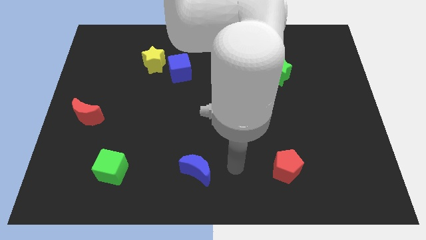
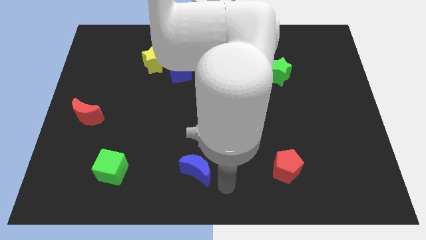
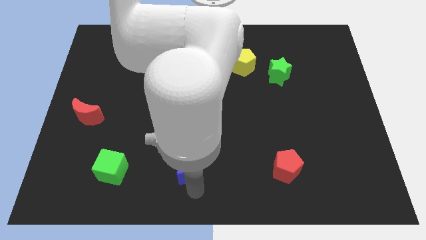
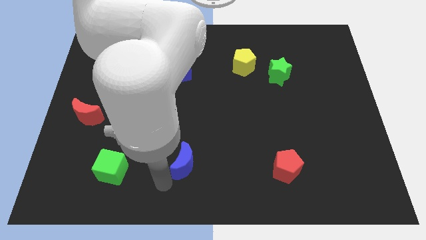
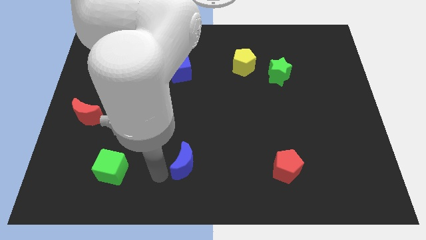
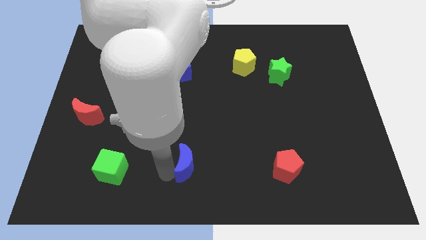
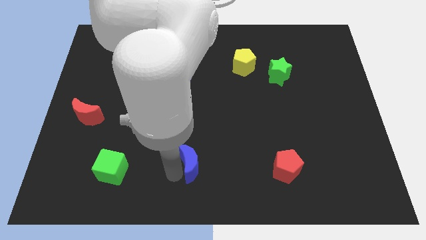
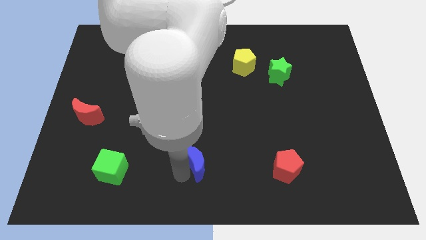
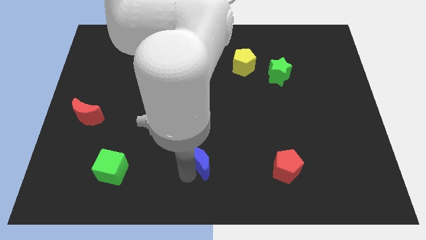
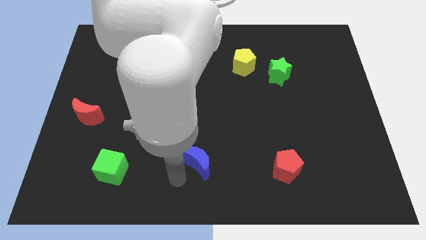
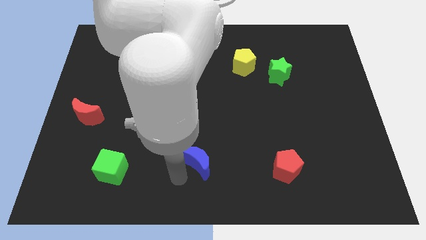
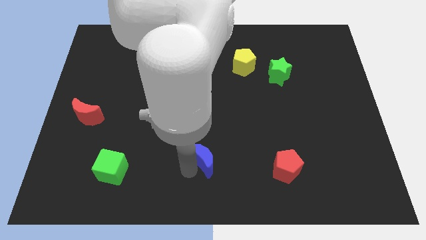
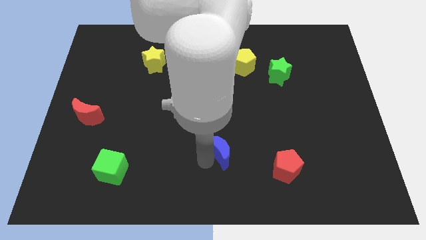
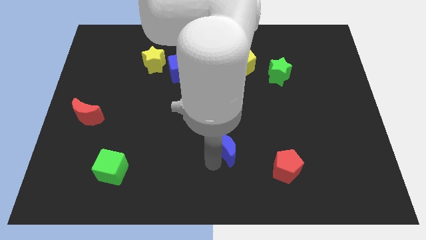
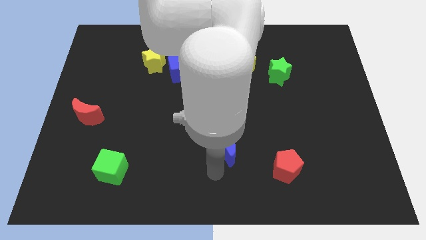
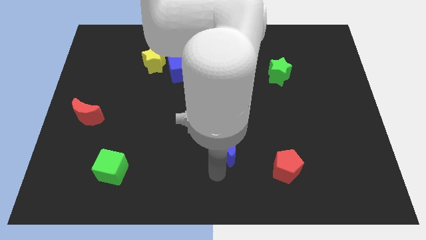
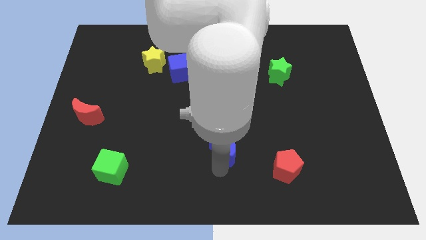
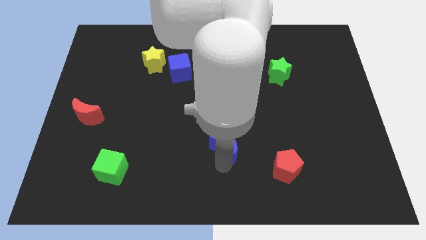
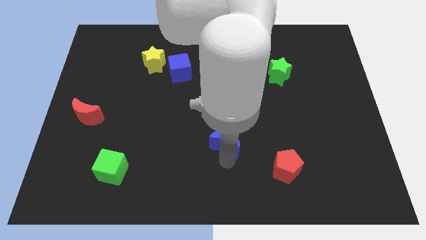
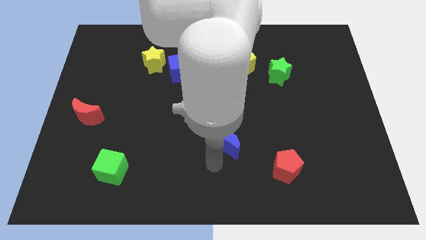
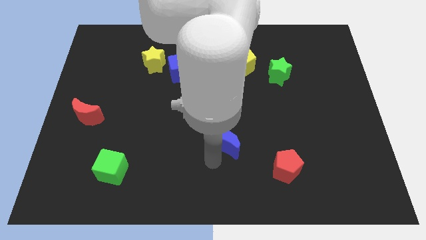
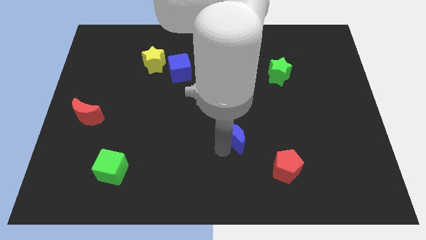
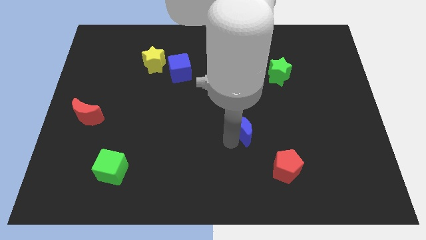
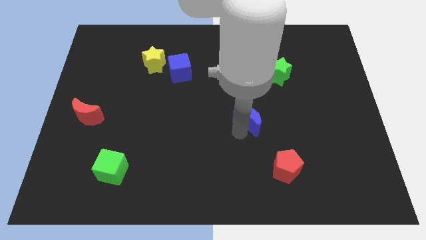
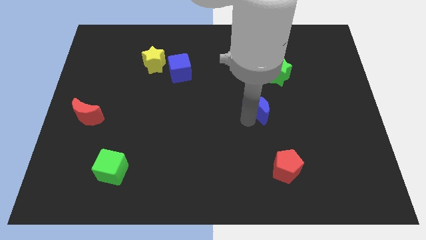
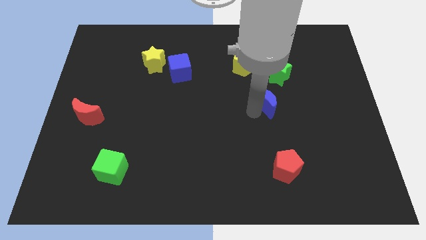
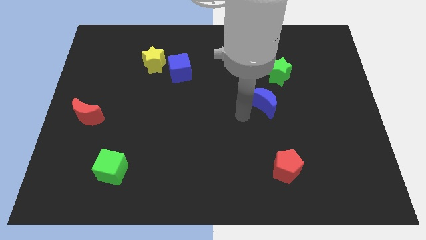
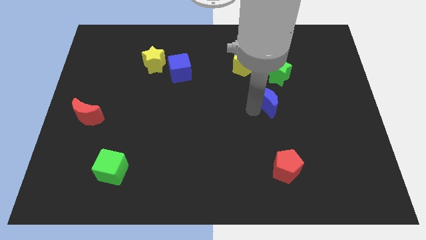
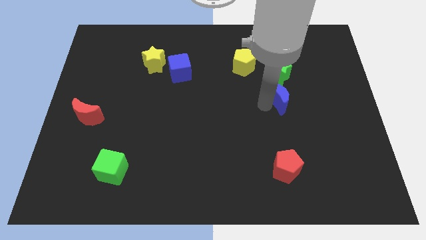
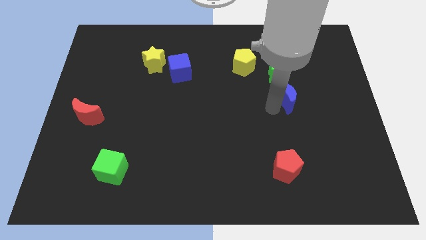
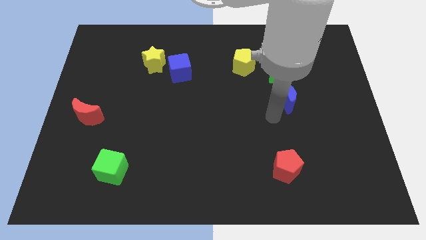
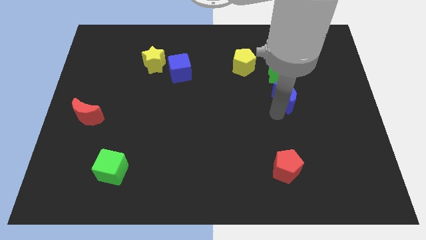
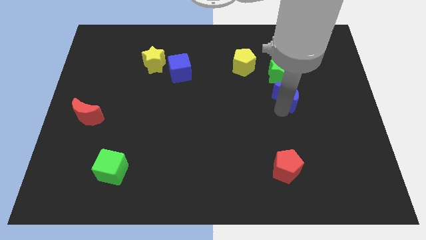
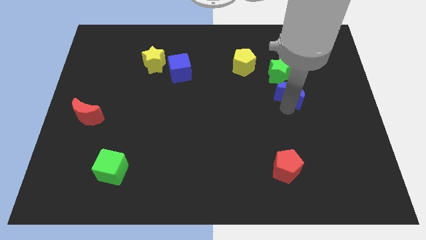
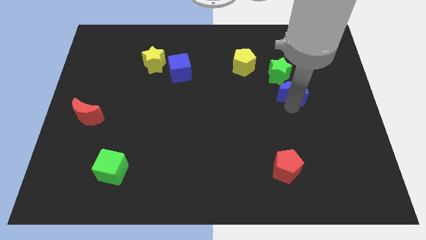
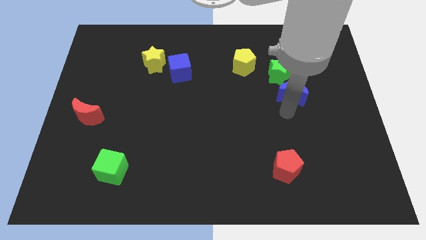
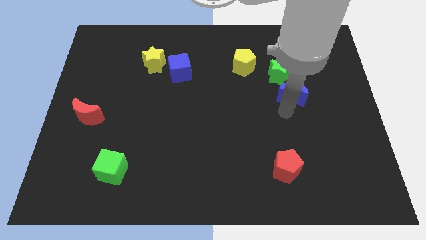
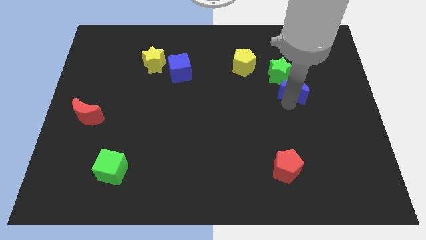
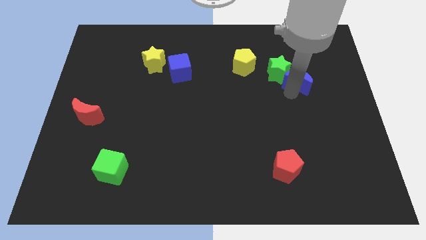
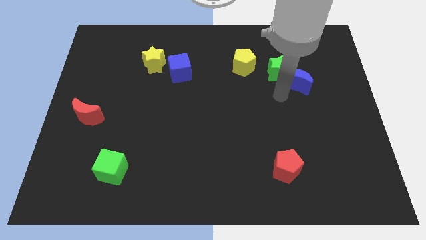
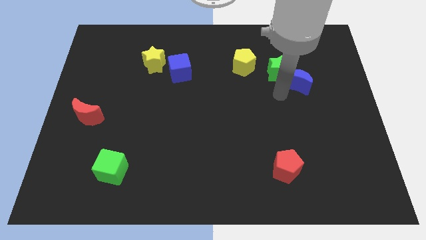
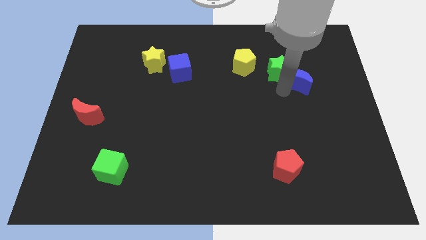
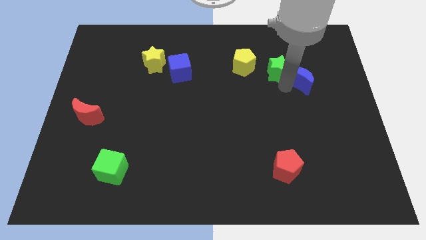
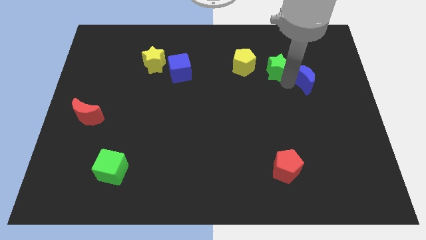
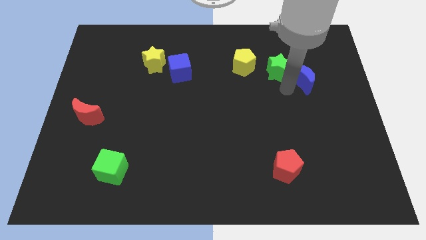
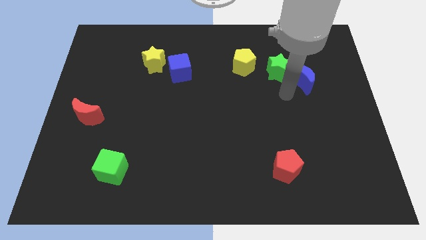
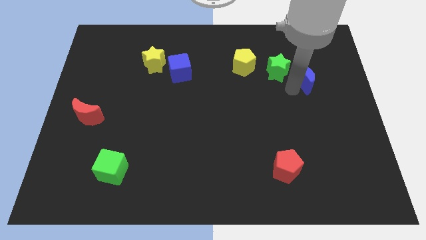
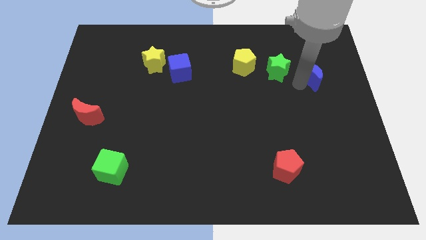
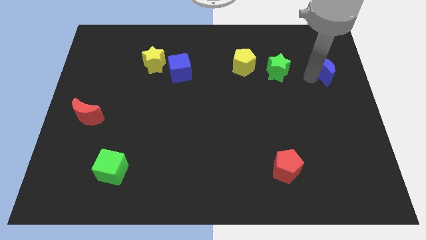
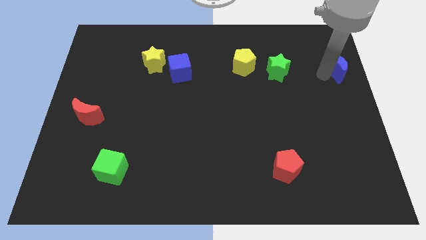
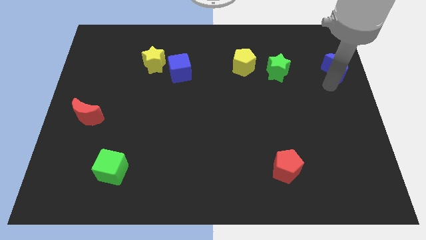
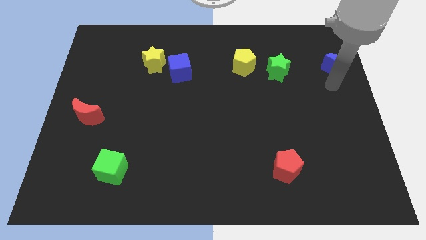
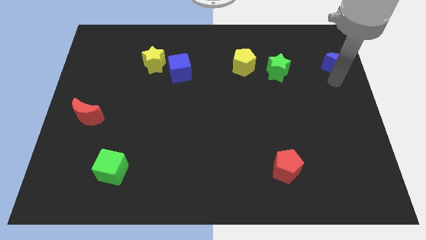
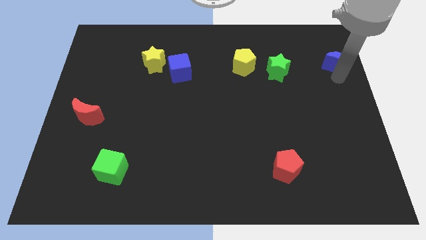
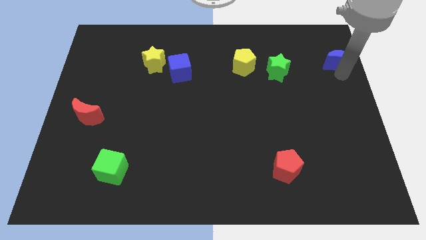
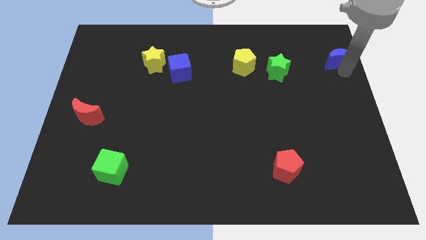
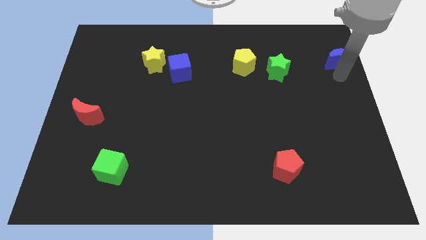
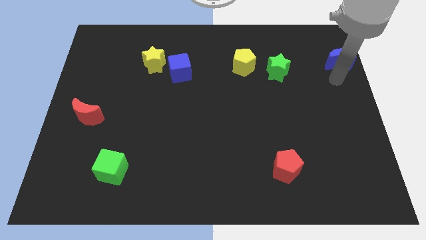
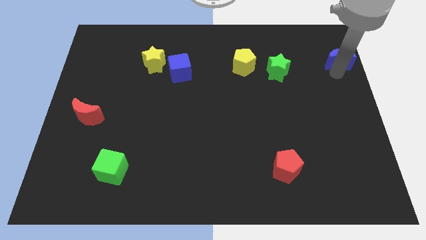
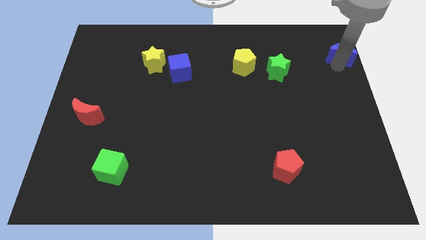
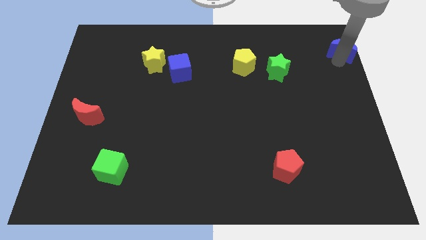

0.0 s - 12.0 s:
push the blue moon to the upper right corner

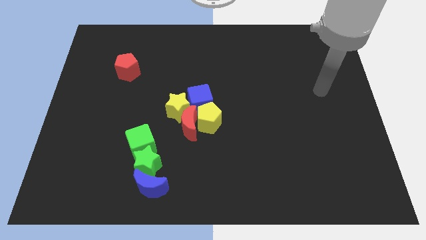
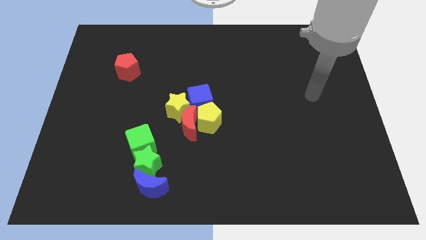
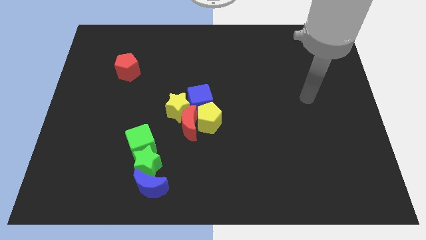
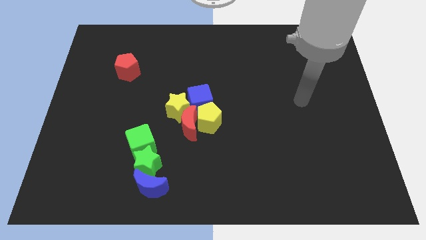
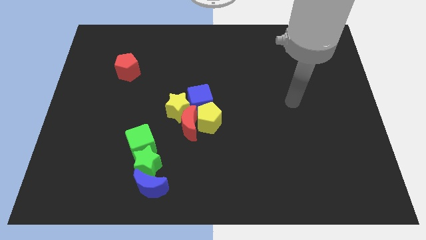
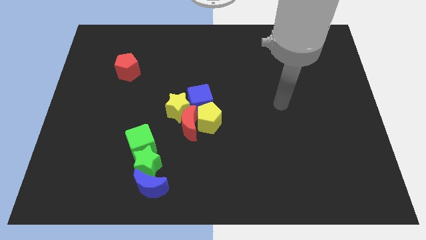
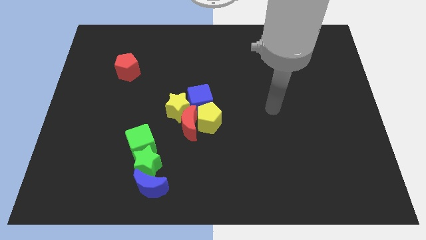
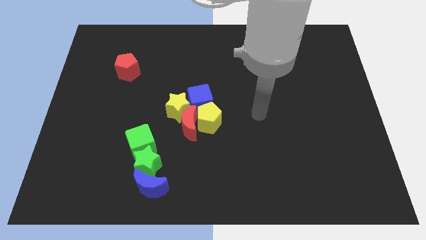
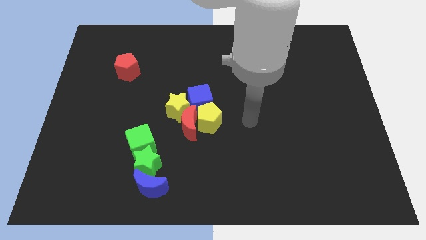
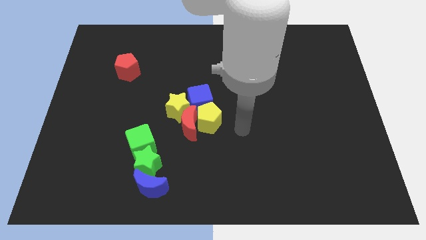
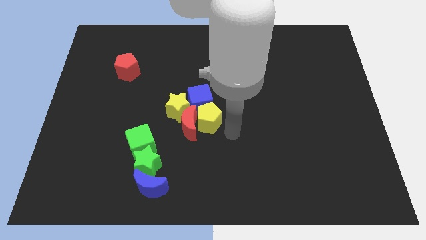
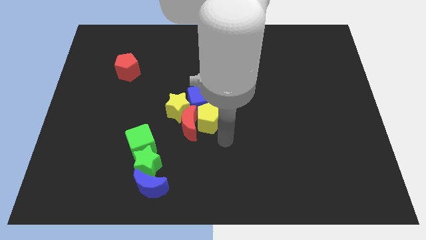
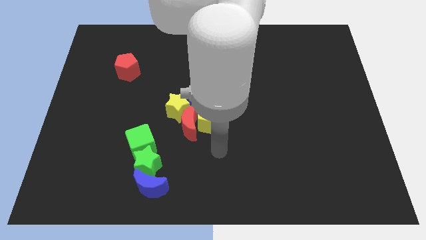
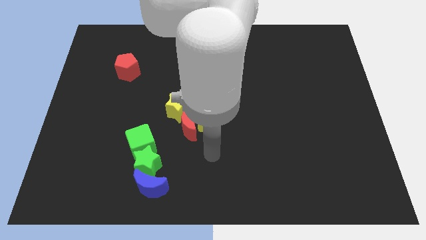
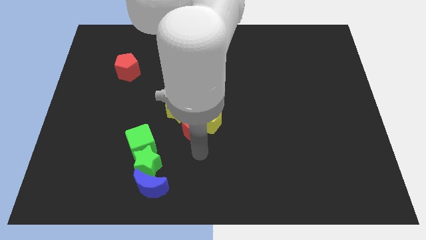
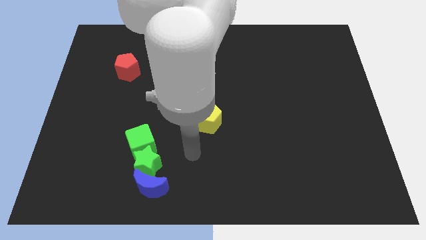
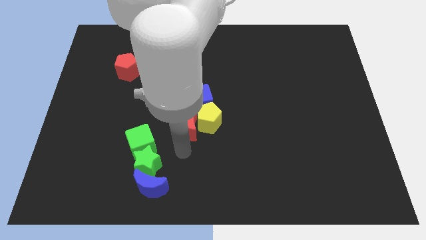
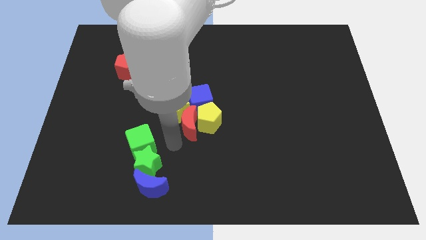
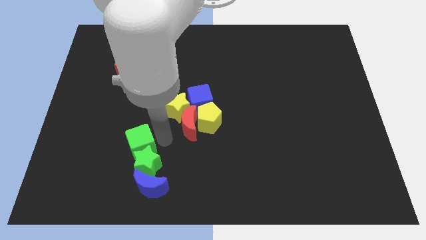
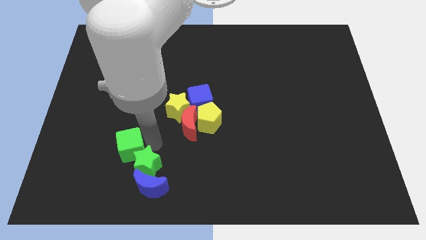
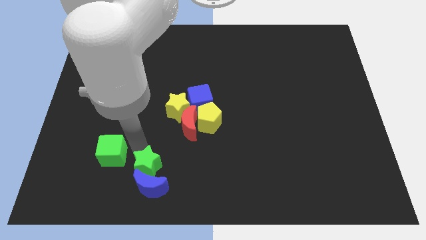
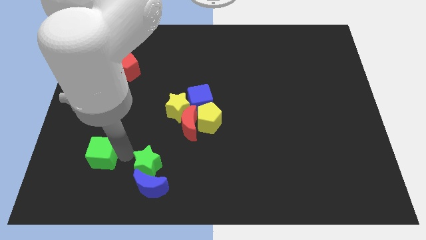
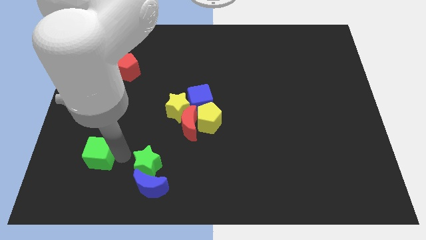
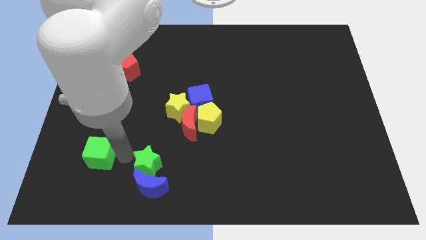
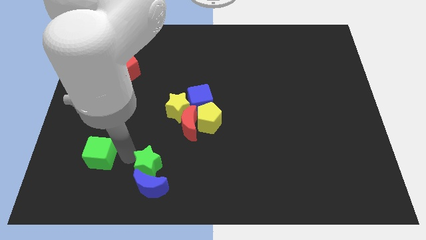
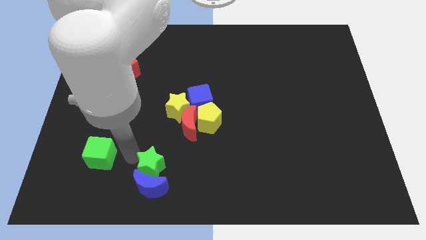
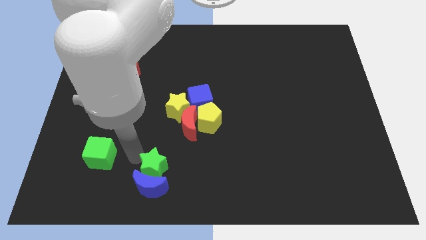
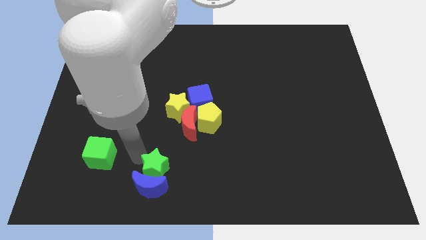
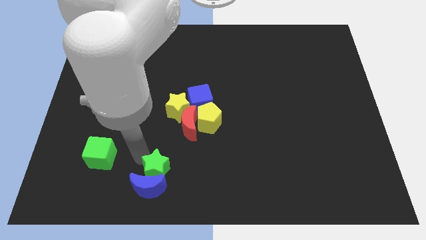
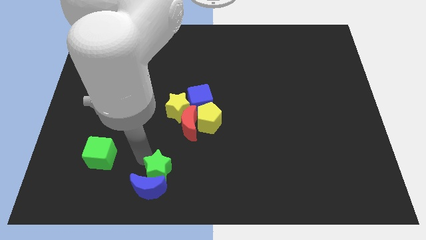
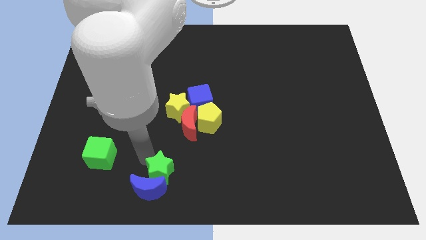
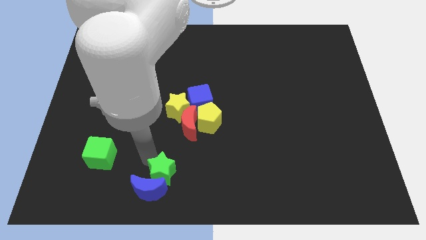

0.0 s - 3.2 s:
push the green star to the bottom
